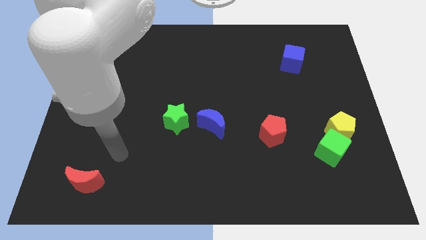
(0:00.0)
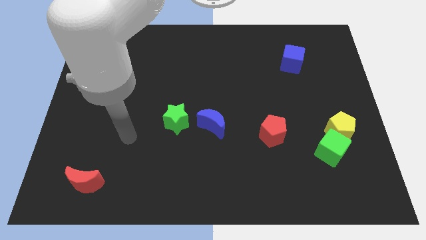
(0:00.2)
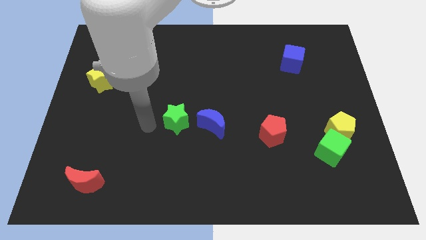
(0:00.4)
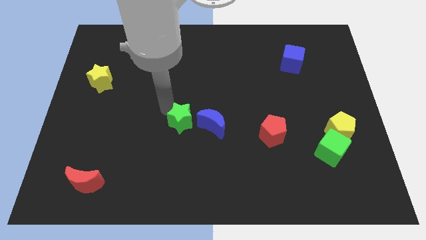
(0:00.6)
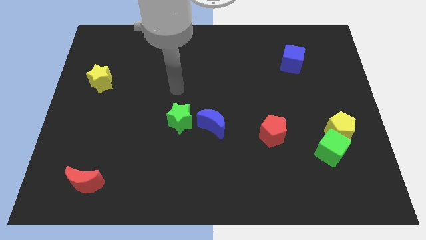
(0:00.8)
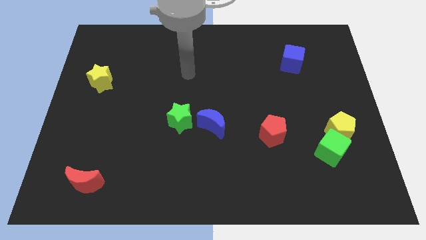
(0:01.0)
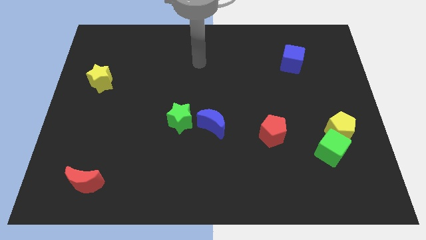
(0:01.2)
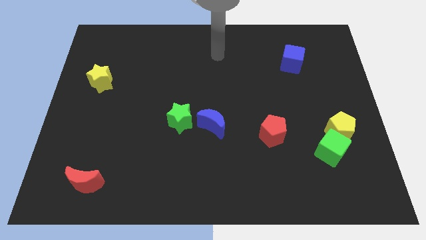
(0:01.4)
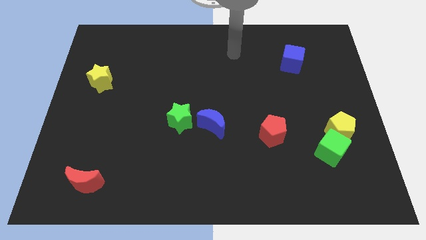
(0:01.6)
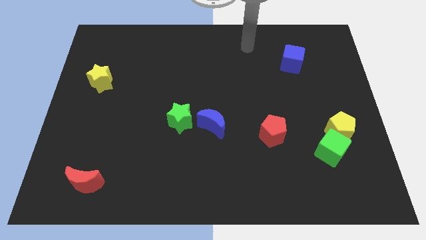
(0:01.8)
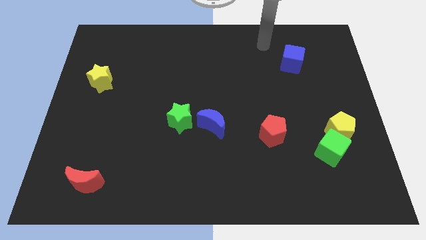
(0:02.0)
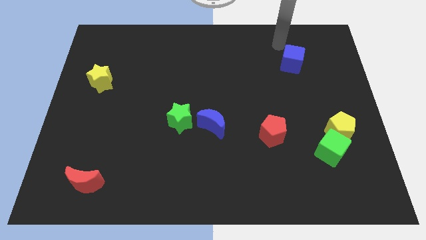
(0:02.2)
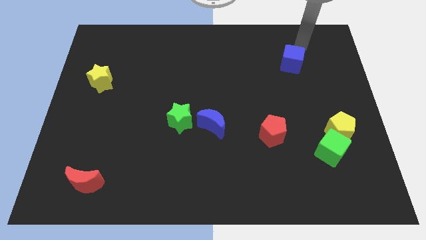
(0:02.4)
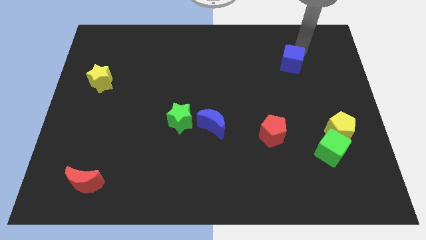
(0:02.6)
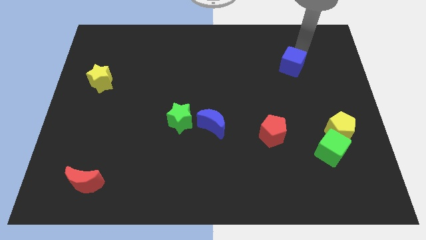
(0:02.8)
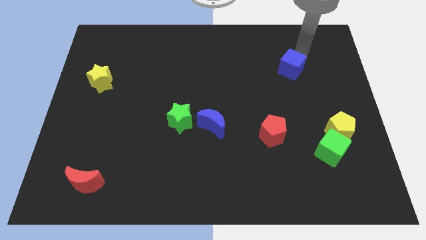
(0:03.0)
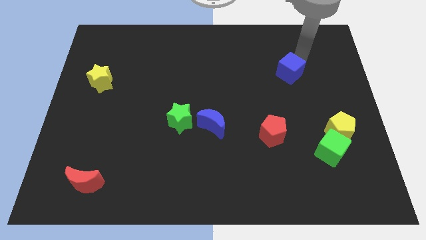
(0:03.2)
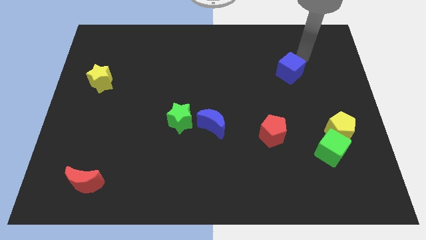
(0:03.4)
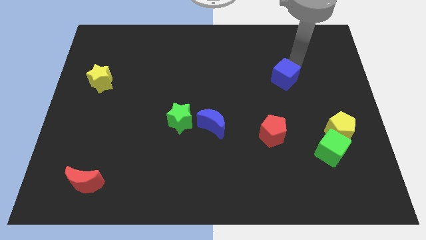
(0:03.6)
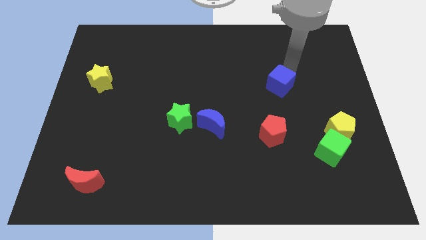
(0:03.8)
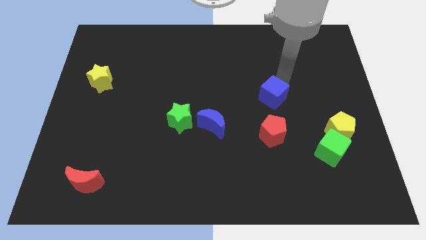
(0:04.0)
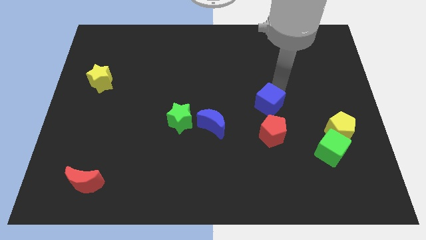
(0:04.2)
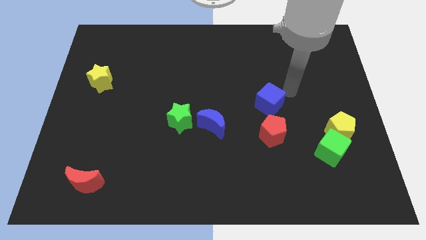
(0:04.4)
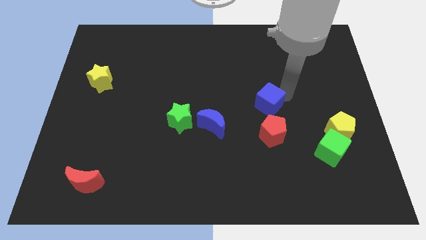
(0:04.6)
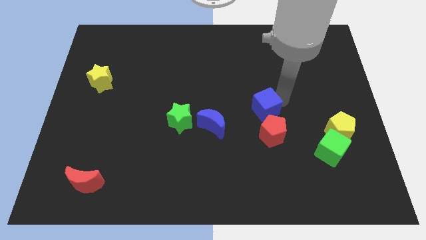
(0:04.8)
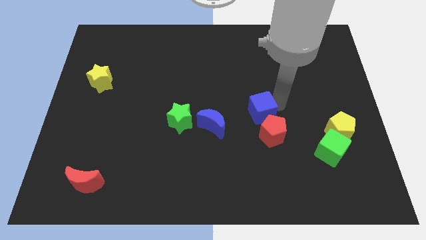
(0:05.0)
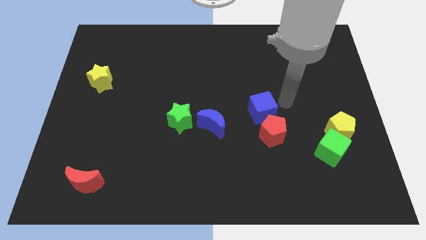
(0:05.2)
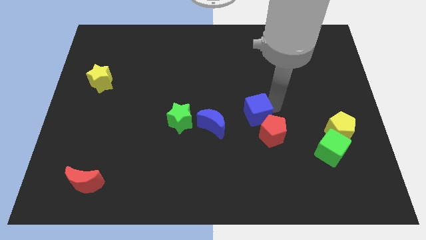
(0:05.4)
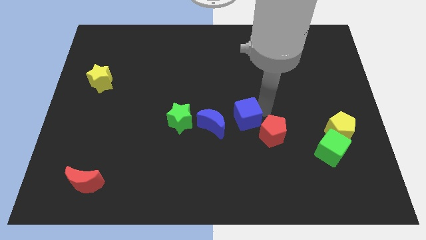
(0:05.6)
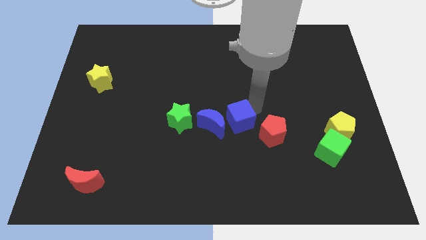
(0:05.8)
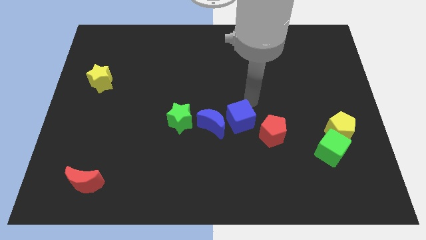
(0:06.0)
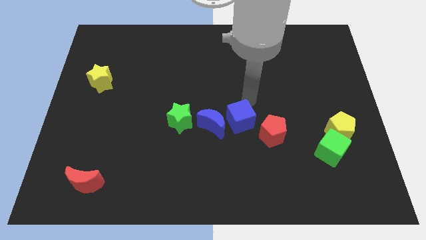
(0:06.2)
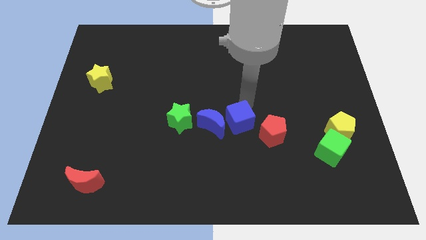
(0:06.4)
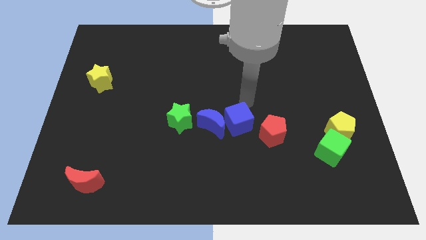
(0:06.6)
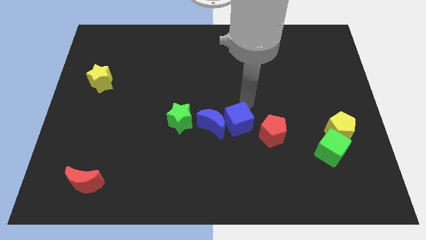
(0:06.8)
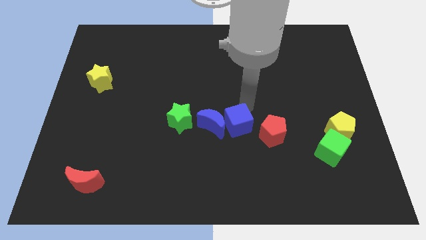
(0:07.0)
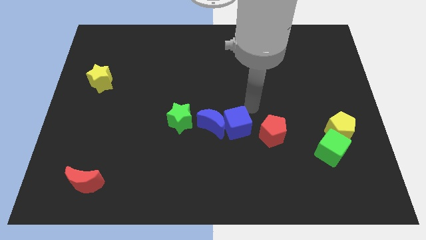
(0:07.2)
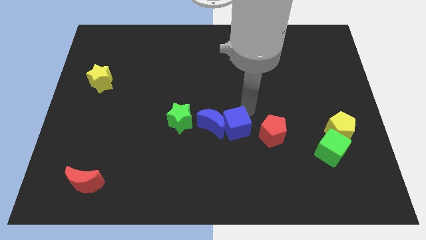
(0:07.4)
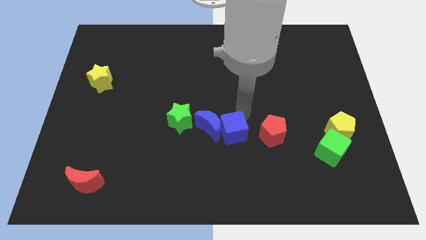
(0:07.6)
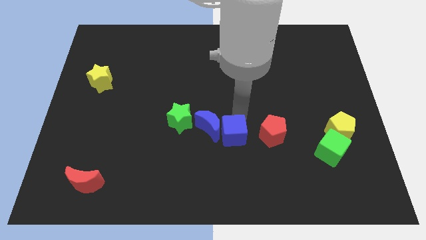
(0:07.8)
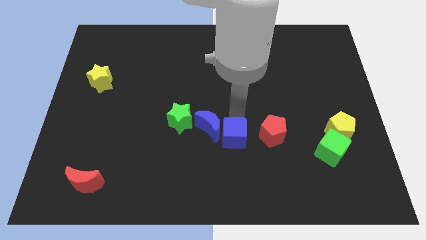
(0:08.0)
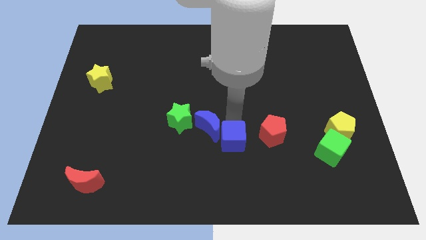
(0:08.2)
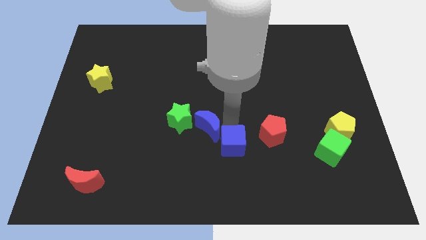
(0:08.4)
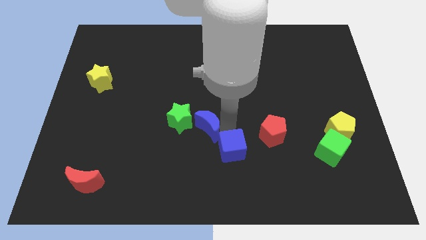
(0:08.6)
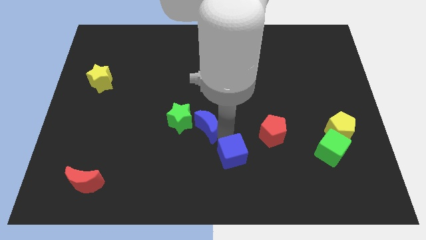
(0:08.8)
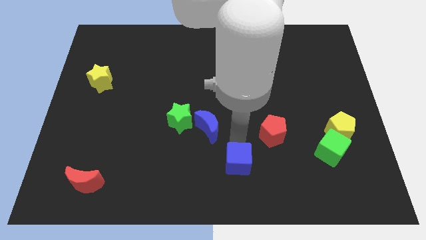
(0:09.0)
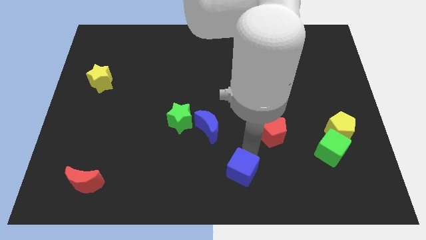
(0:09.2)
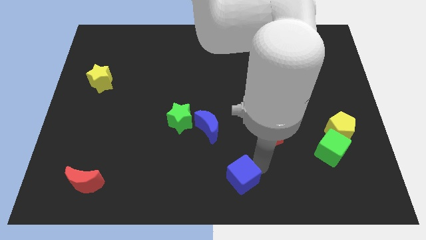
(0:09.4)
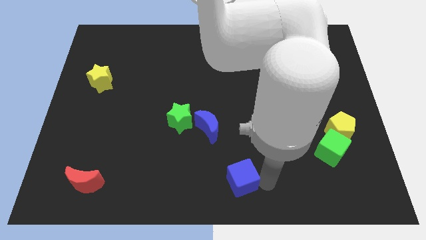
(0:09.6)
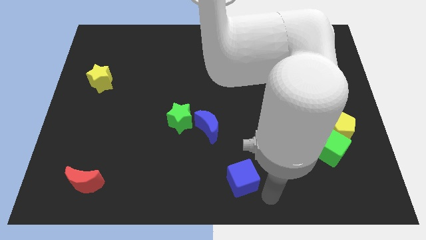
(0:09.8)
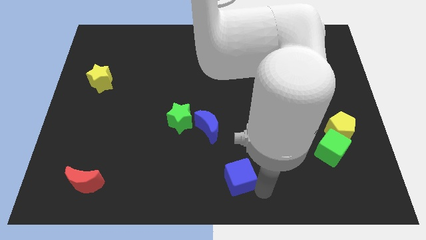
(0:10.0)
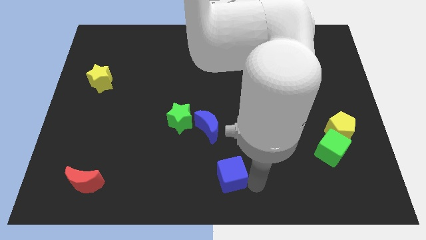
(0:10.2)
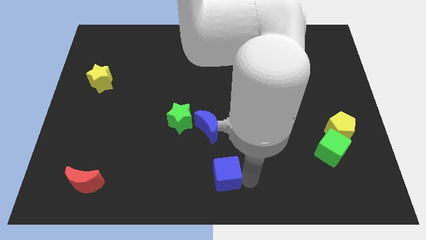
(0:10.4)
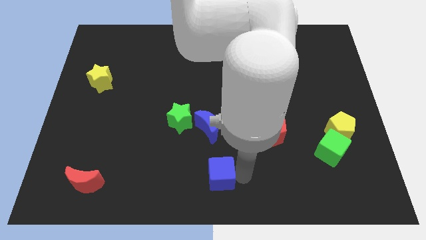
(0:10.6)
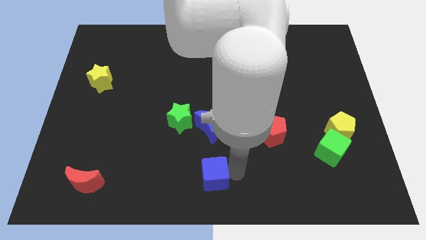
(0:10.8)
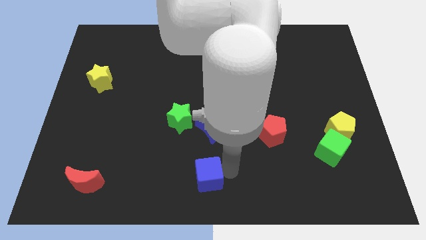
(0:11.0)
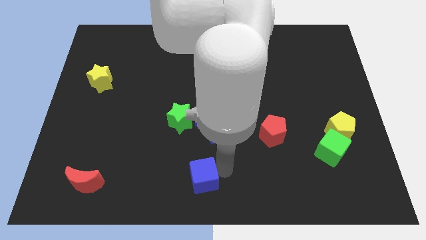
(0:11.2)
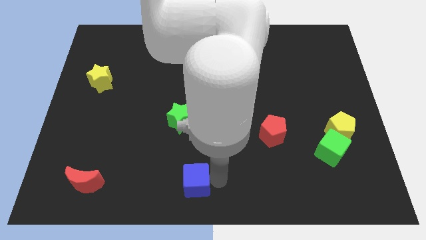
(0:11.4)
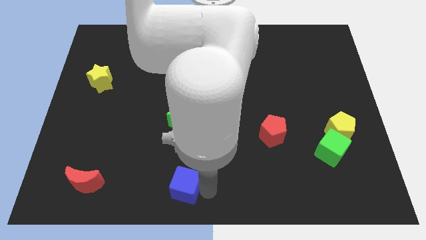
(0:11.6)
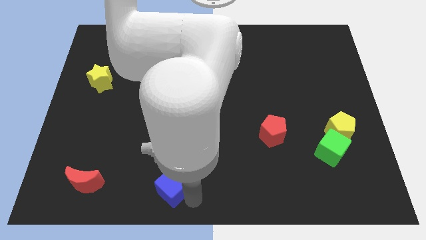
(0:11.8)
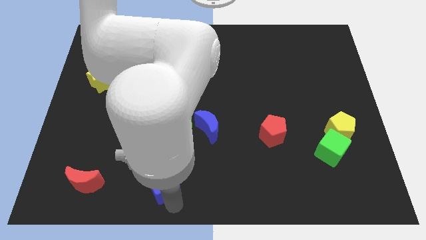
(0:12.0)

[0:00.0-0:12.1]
move the blue cube right of the red moon

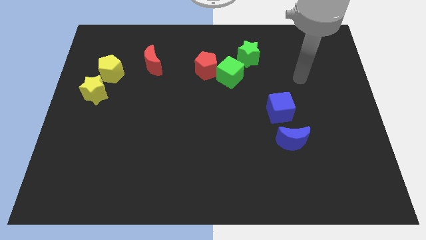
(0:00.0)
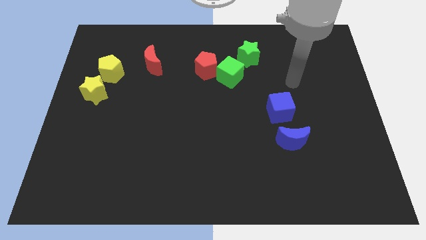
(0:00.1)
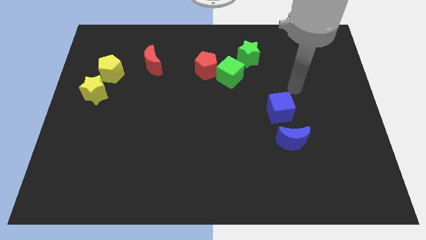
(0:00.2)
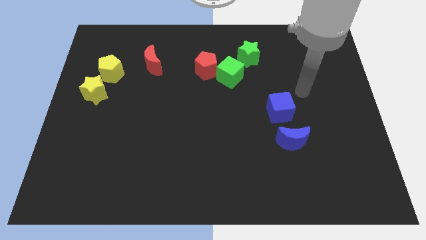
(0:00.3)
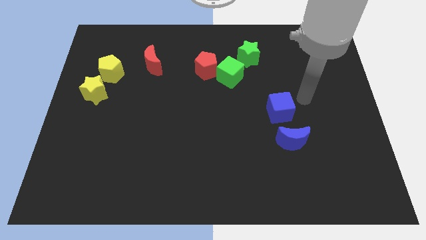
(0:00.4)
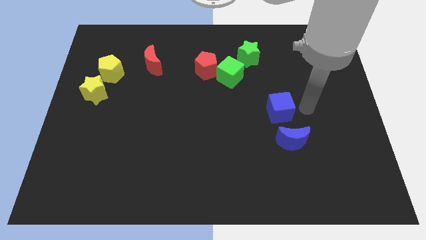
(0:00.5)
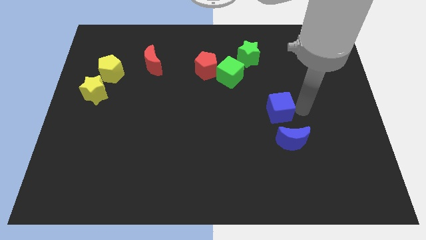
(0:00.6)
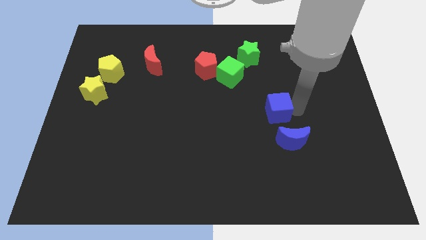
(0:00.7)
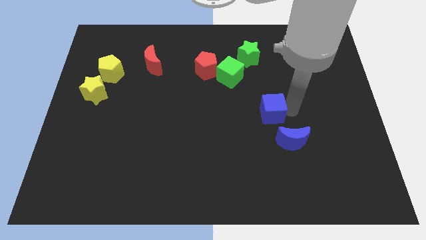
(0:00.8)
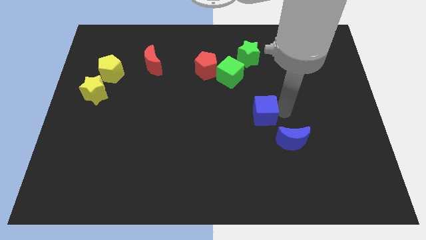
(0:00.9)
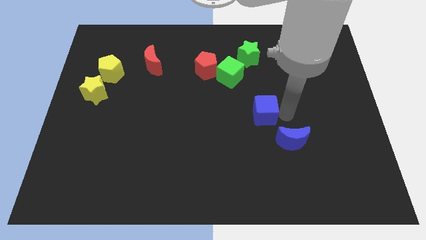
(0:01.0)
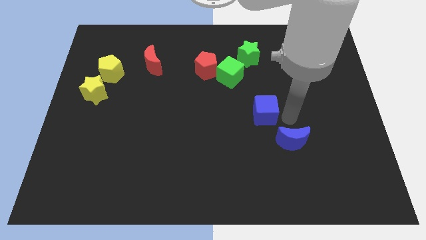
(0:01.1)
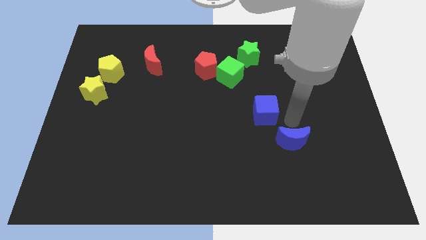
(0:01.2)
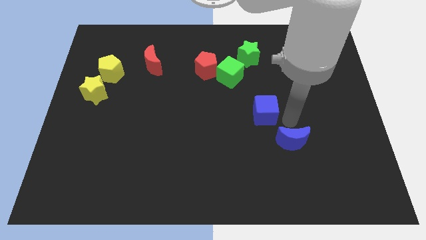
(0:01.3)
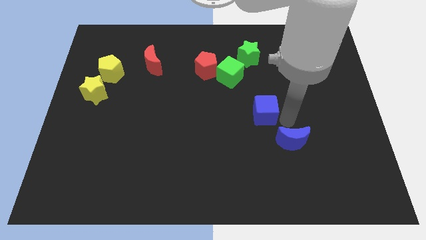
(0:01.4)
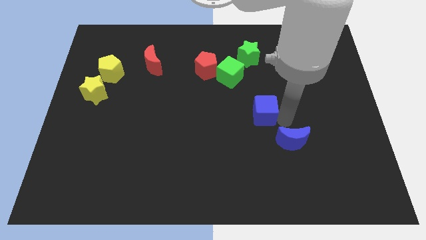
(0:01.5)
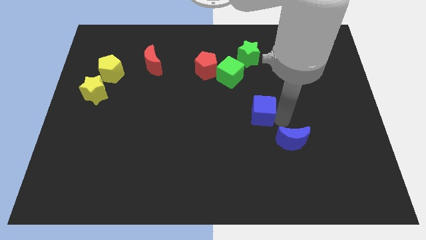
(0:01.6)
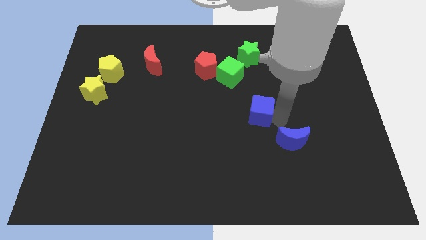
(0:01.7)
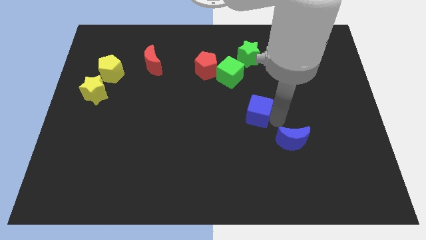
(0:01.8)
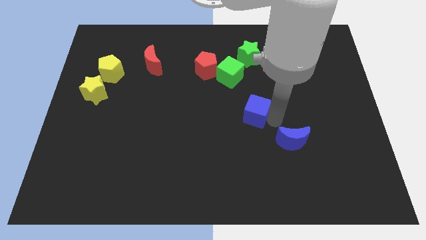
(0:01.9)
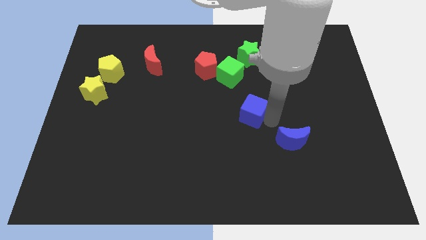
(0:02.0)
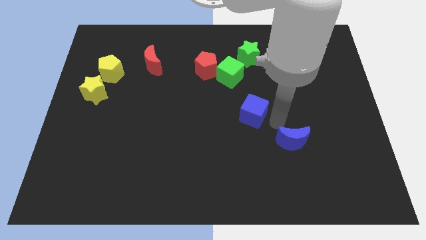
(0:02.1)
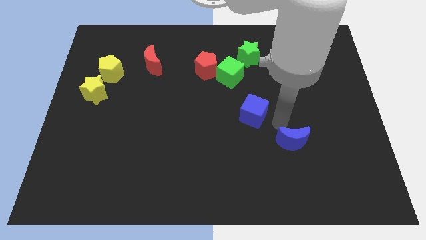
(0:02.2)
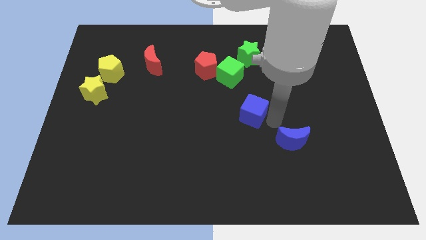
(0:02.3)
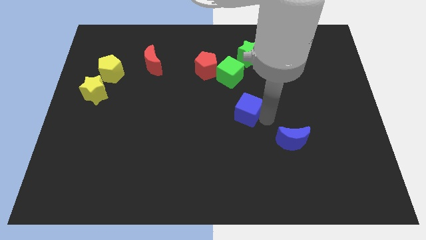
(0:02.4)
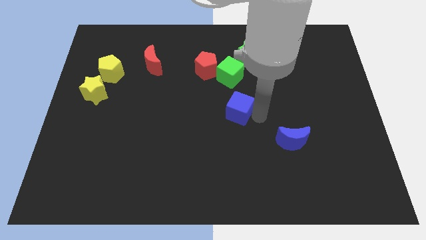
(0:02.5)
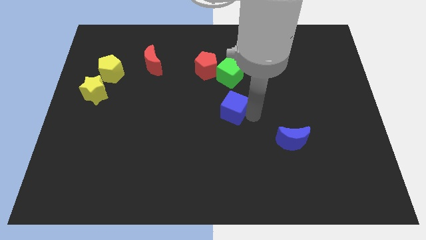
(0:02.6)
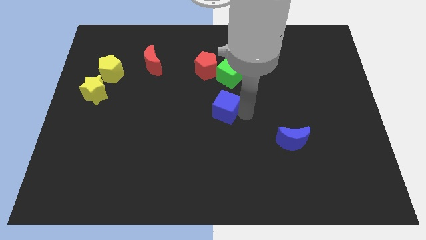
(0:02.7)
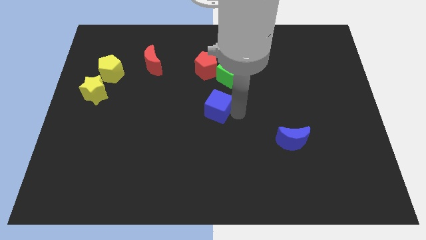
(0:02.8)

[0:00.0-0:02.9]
move the blue cube to the bottom side of the red pentagon
